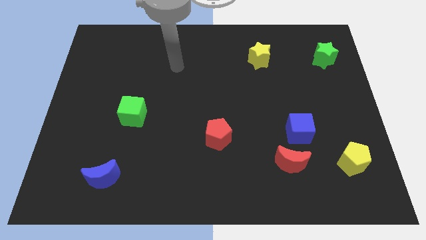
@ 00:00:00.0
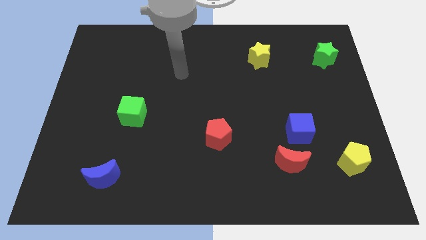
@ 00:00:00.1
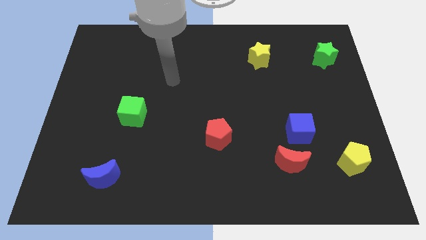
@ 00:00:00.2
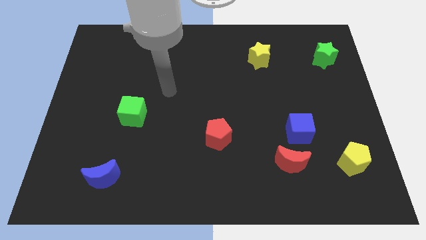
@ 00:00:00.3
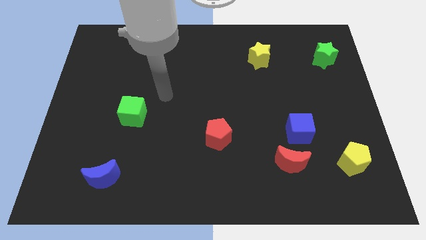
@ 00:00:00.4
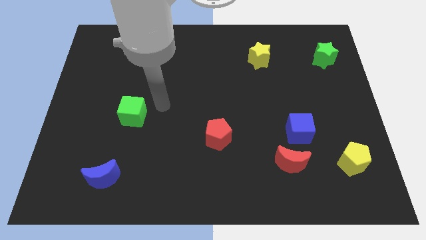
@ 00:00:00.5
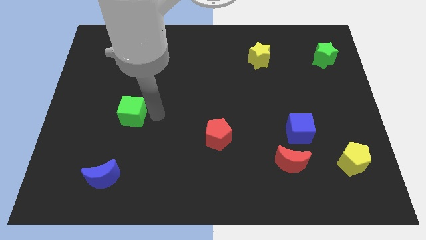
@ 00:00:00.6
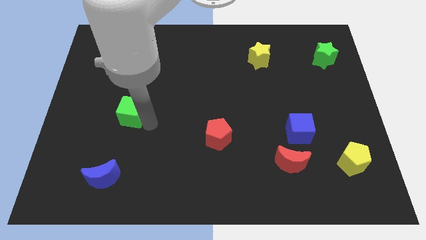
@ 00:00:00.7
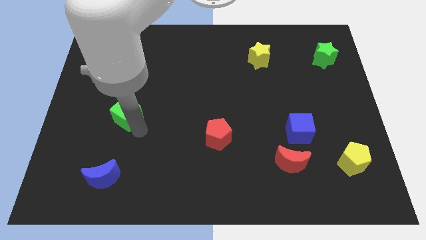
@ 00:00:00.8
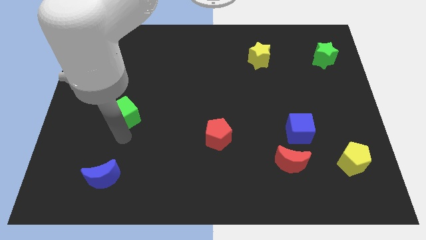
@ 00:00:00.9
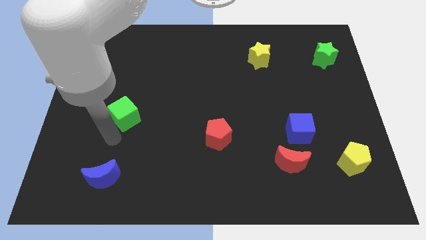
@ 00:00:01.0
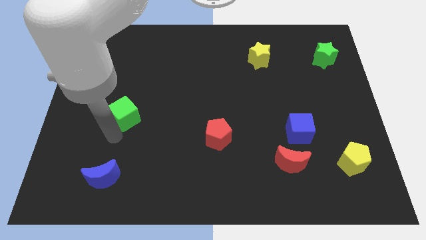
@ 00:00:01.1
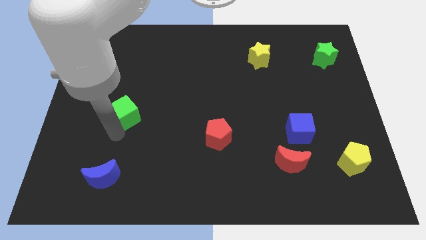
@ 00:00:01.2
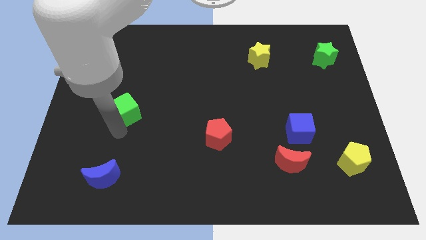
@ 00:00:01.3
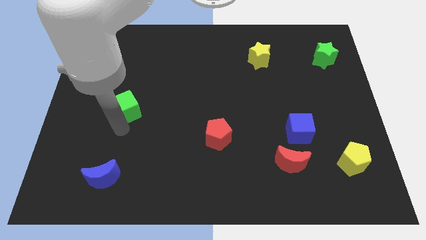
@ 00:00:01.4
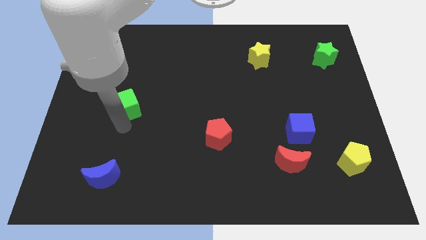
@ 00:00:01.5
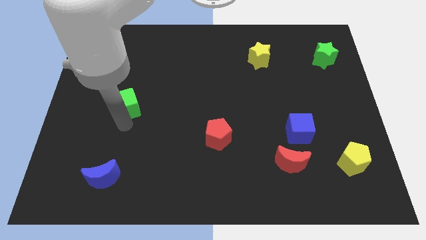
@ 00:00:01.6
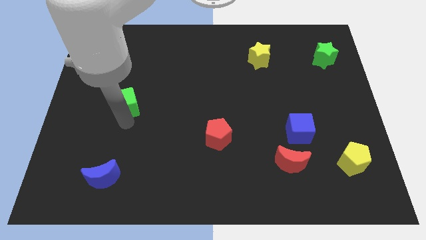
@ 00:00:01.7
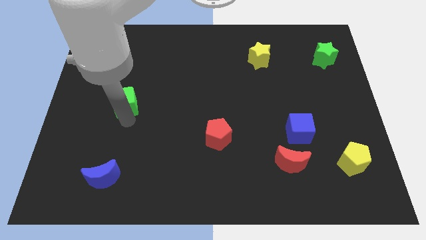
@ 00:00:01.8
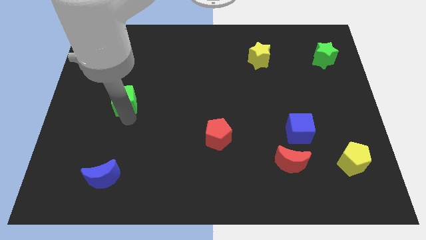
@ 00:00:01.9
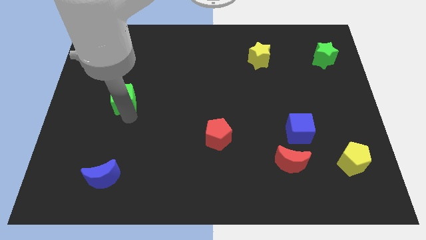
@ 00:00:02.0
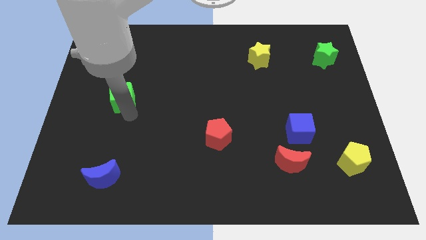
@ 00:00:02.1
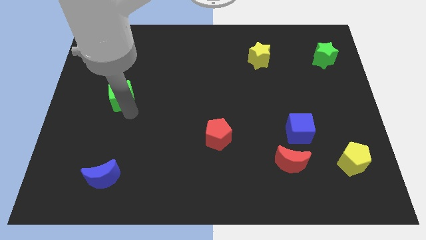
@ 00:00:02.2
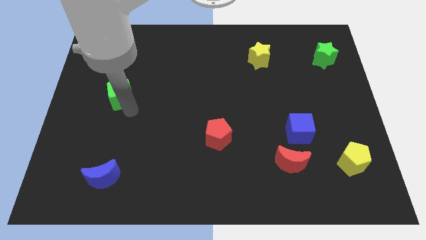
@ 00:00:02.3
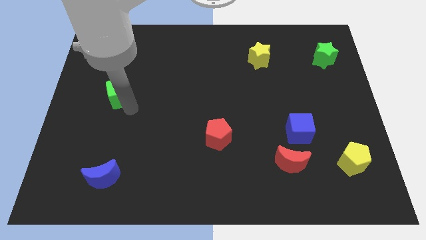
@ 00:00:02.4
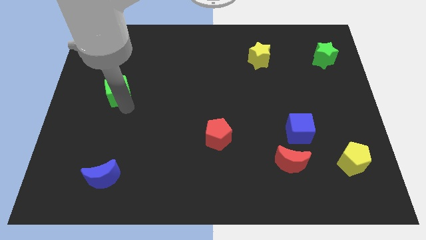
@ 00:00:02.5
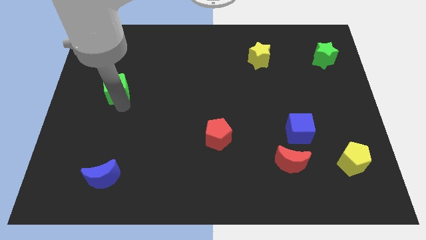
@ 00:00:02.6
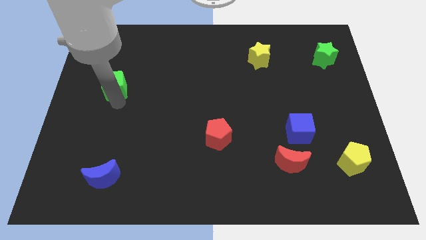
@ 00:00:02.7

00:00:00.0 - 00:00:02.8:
slightly move the green cube upwards

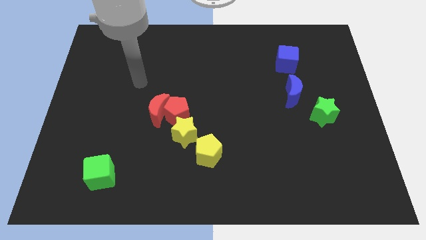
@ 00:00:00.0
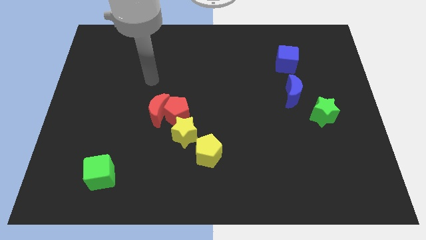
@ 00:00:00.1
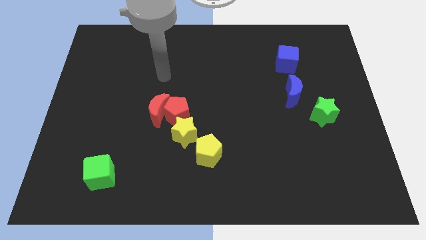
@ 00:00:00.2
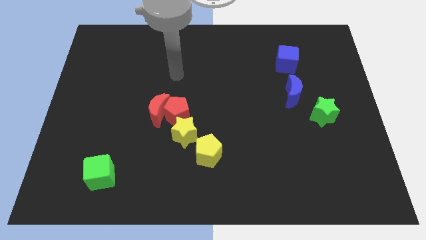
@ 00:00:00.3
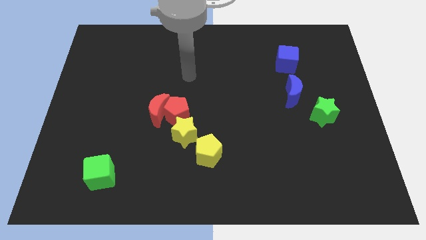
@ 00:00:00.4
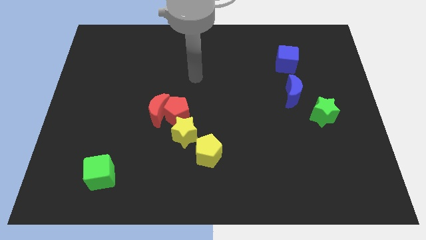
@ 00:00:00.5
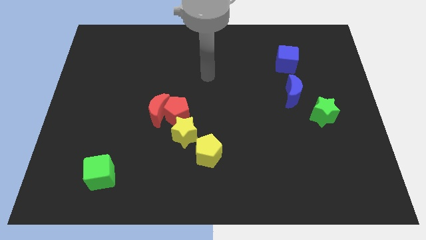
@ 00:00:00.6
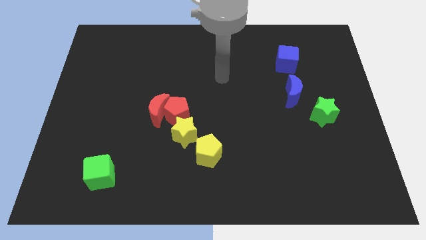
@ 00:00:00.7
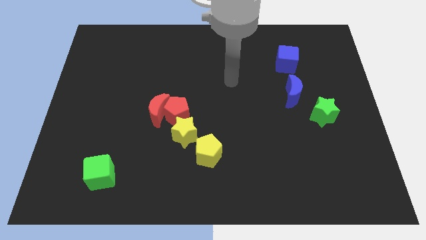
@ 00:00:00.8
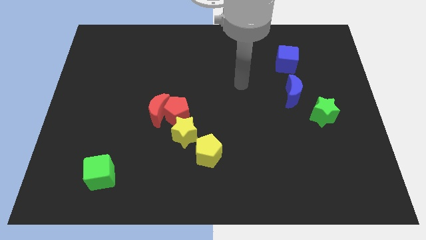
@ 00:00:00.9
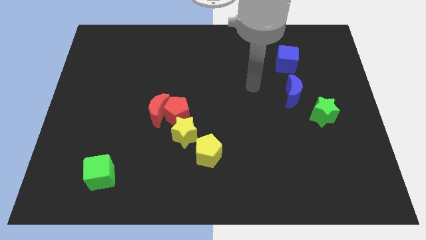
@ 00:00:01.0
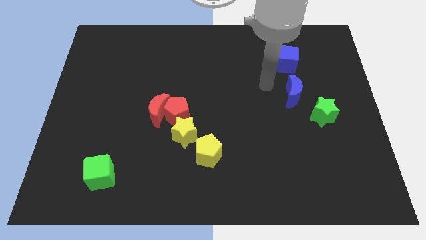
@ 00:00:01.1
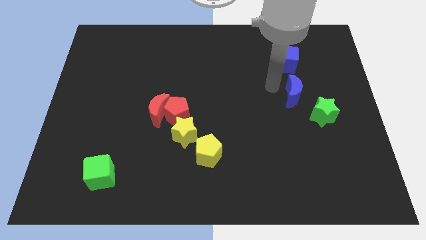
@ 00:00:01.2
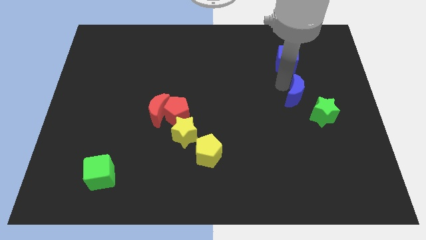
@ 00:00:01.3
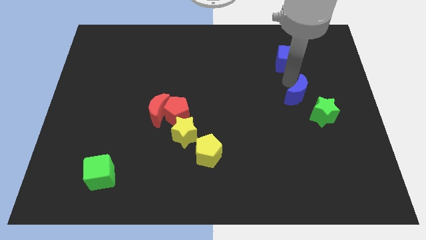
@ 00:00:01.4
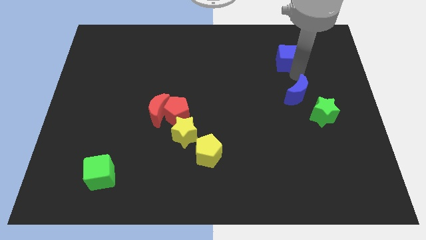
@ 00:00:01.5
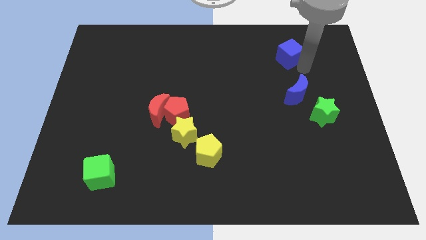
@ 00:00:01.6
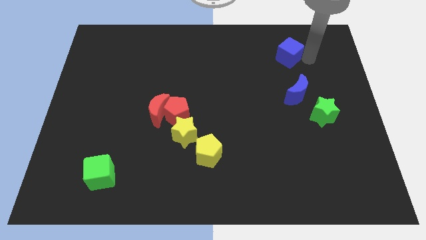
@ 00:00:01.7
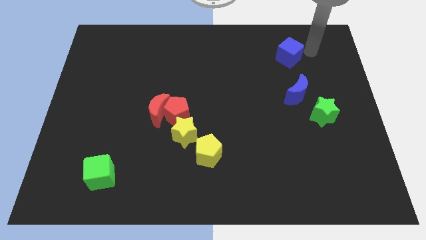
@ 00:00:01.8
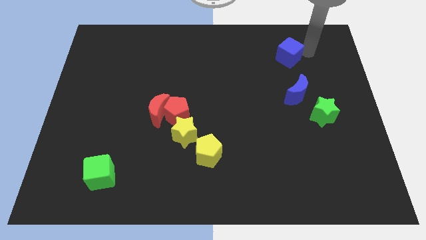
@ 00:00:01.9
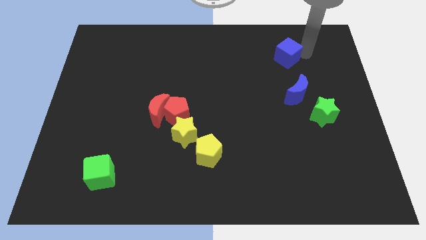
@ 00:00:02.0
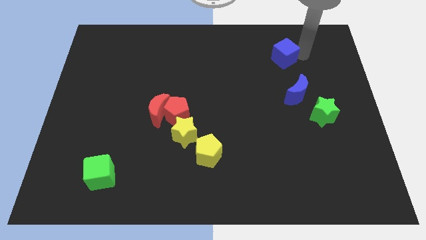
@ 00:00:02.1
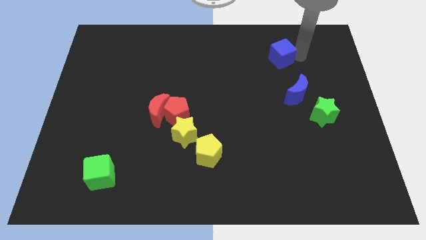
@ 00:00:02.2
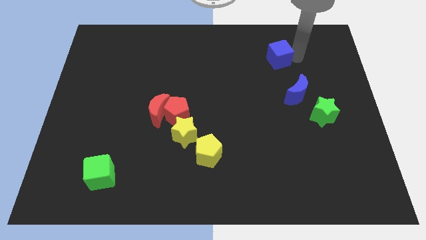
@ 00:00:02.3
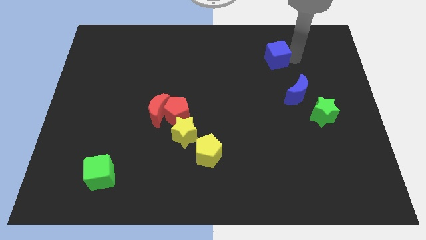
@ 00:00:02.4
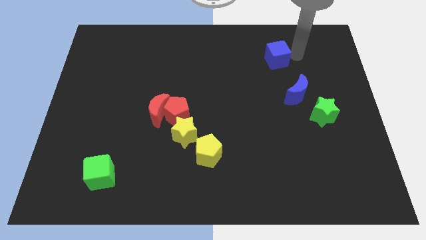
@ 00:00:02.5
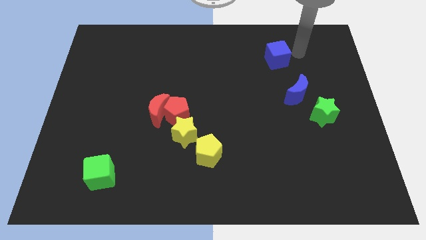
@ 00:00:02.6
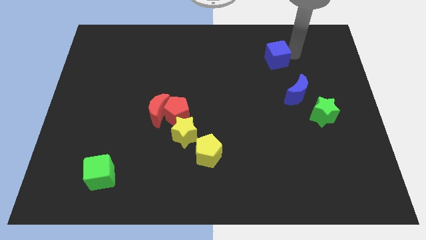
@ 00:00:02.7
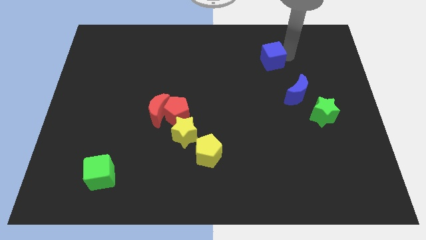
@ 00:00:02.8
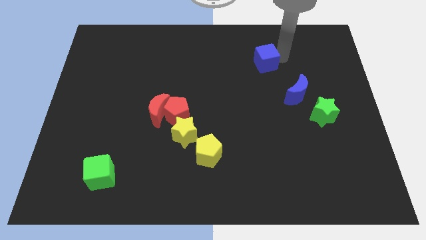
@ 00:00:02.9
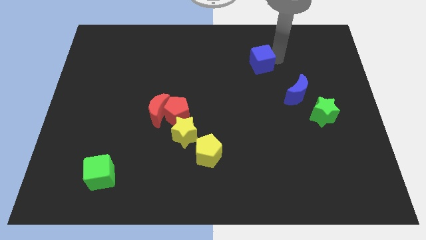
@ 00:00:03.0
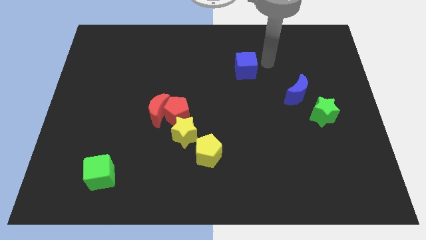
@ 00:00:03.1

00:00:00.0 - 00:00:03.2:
slide the blue cube slightly to the left

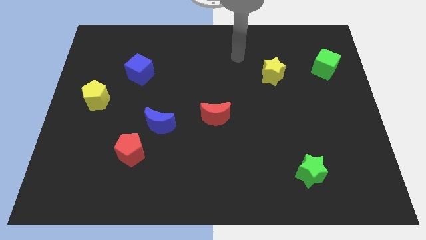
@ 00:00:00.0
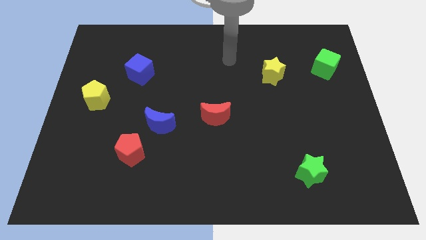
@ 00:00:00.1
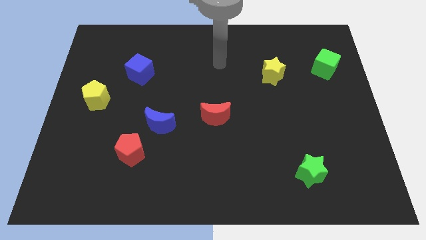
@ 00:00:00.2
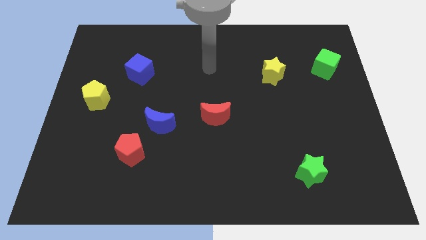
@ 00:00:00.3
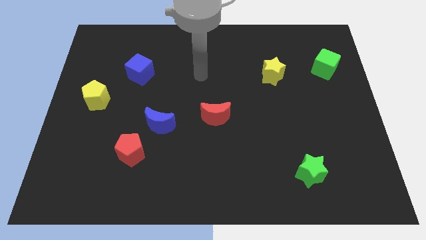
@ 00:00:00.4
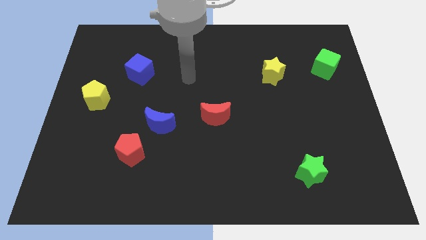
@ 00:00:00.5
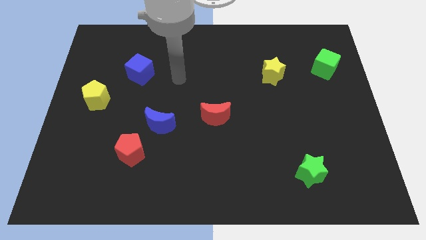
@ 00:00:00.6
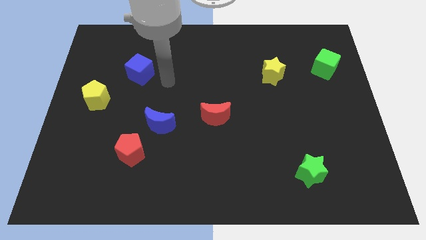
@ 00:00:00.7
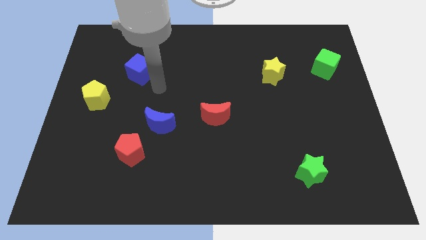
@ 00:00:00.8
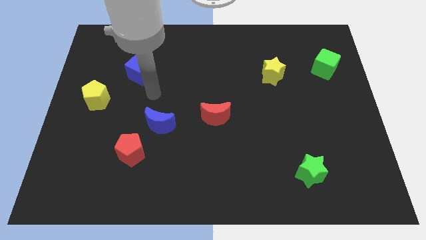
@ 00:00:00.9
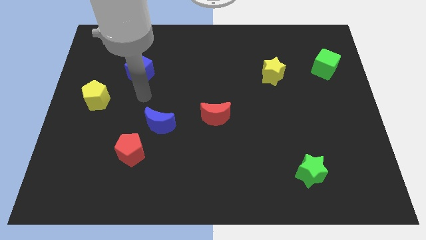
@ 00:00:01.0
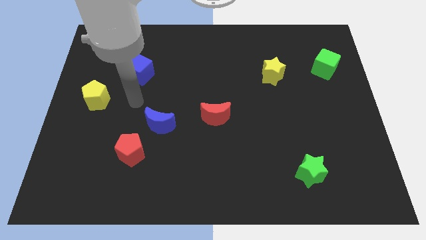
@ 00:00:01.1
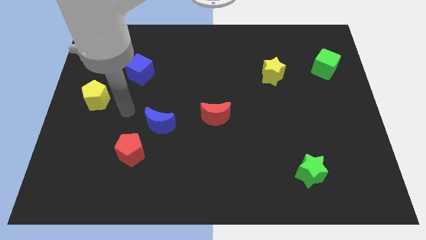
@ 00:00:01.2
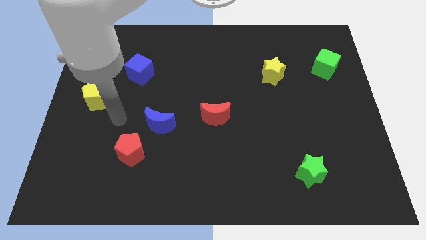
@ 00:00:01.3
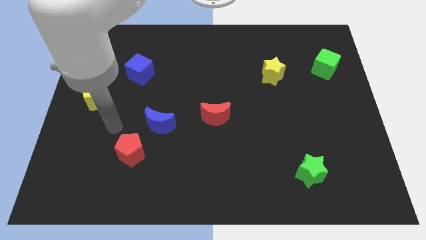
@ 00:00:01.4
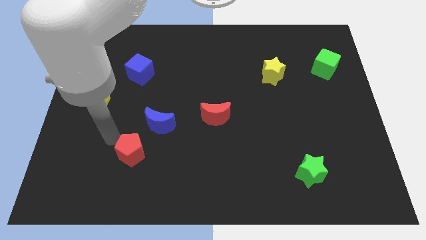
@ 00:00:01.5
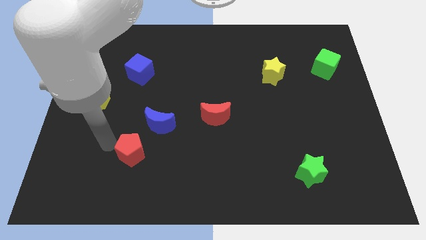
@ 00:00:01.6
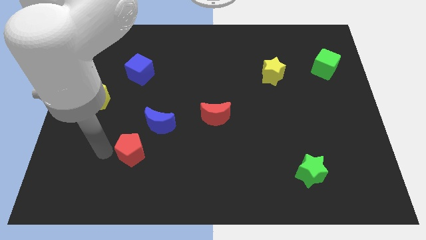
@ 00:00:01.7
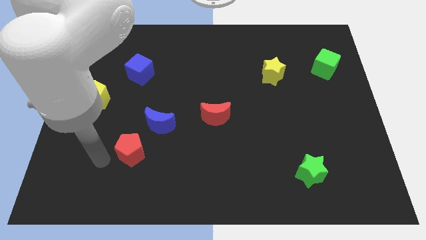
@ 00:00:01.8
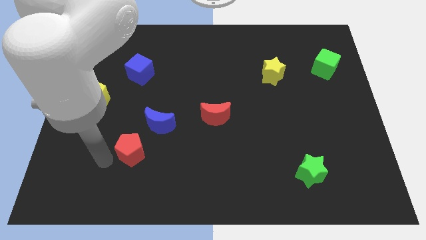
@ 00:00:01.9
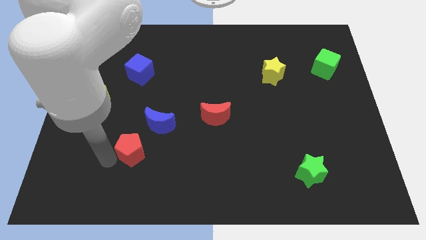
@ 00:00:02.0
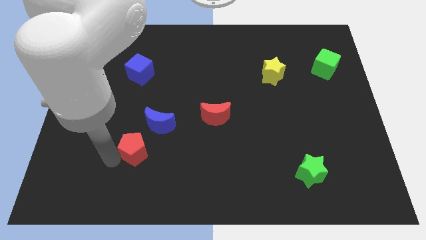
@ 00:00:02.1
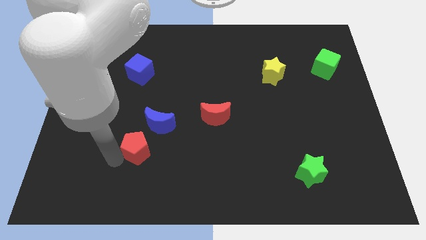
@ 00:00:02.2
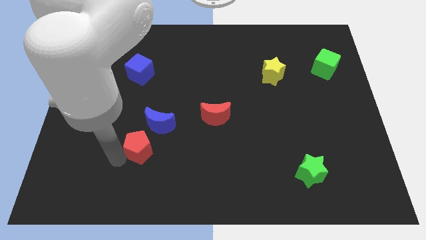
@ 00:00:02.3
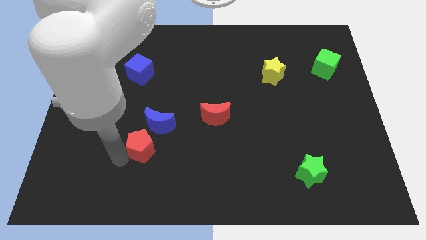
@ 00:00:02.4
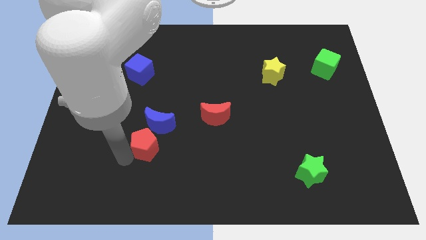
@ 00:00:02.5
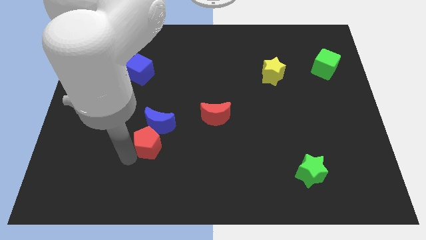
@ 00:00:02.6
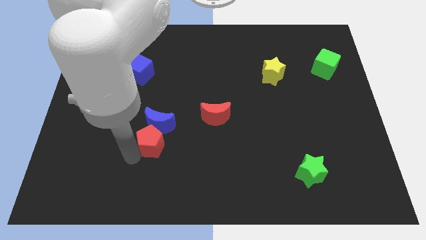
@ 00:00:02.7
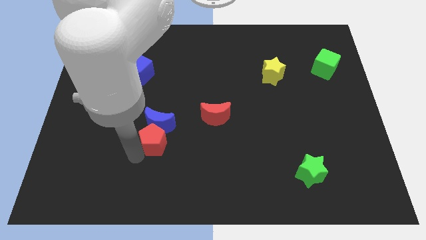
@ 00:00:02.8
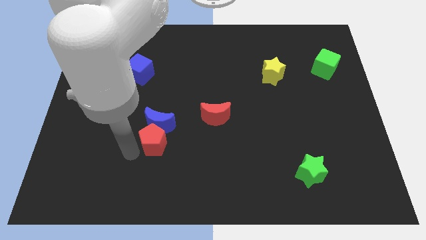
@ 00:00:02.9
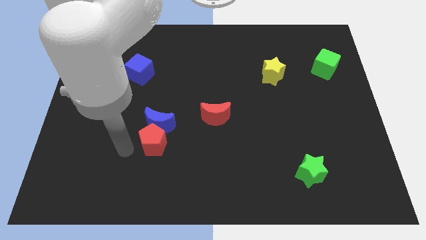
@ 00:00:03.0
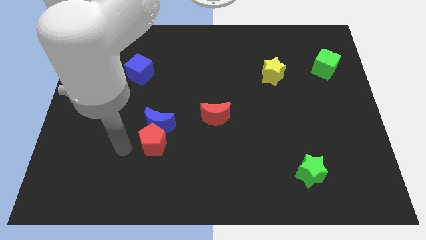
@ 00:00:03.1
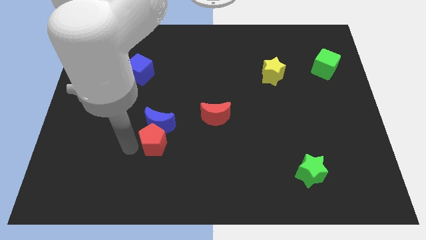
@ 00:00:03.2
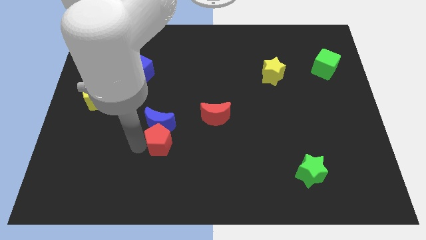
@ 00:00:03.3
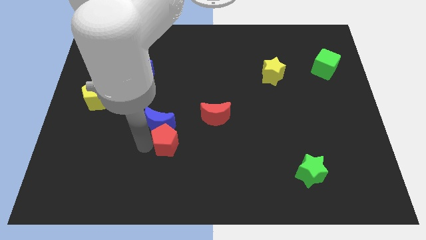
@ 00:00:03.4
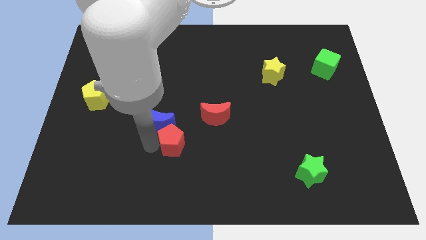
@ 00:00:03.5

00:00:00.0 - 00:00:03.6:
push the red pentagon a little bit upwards and to the right diagonally
